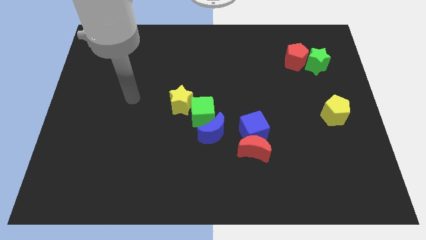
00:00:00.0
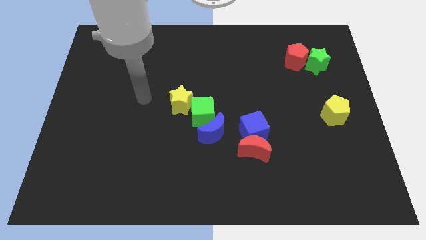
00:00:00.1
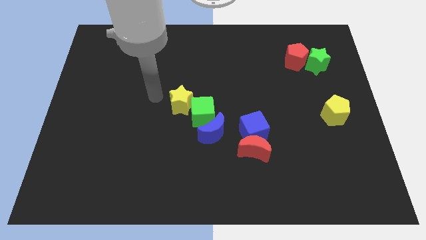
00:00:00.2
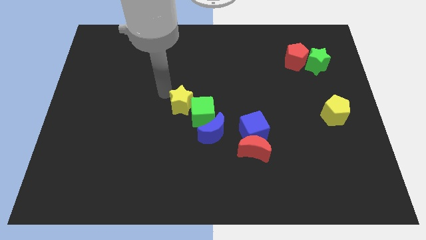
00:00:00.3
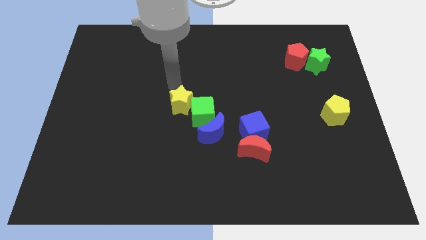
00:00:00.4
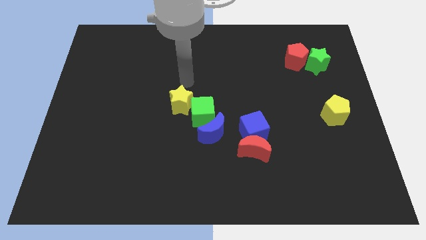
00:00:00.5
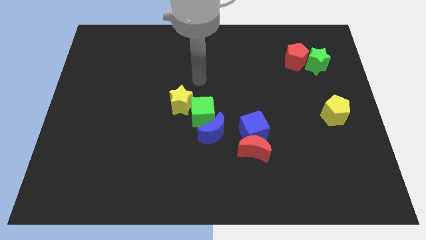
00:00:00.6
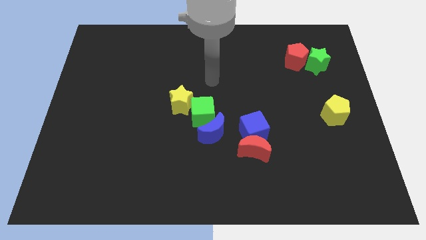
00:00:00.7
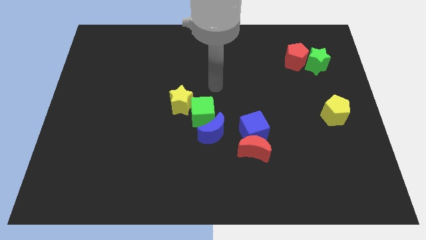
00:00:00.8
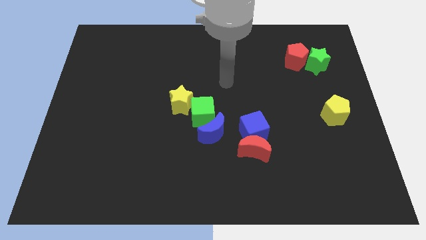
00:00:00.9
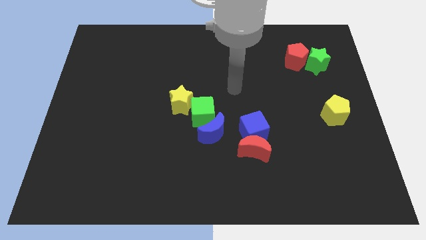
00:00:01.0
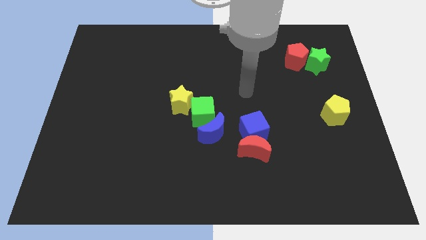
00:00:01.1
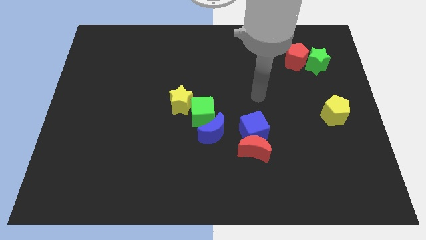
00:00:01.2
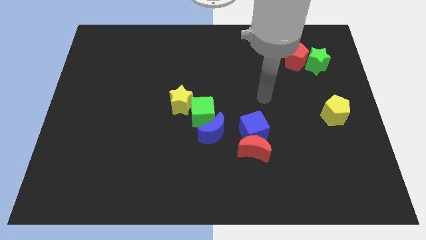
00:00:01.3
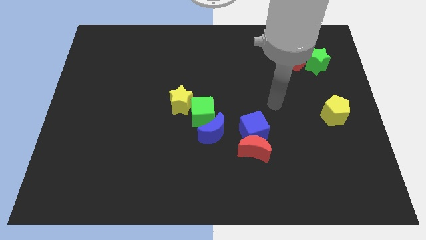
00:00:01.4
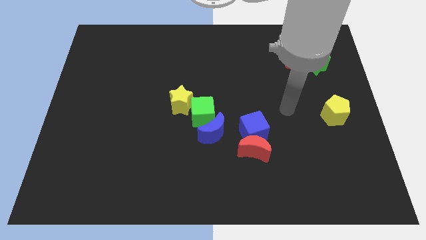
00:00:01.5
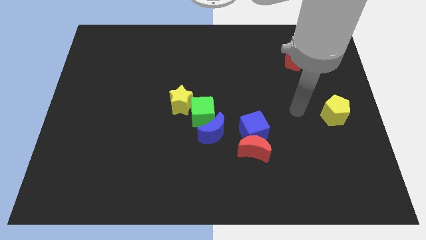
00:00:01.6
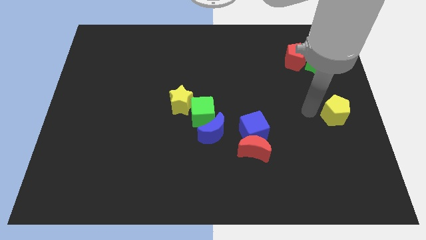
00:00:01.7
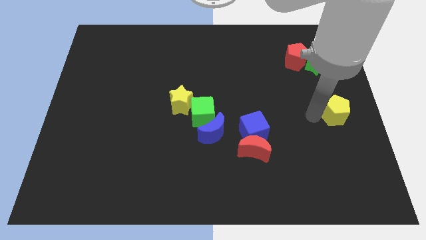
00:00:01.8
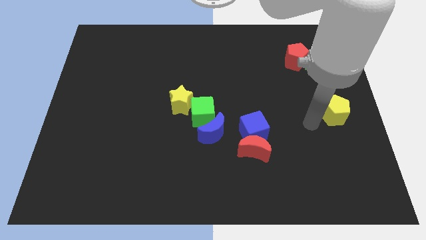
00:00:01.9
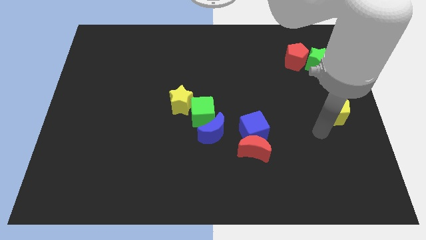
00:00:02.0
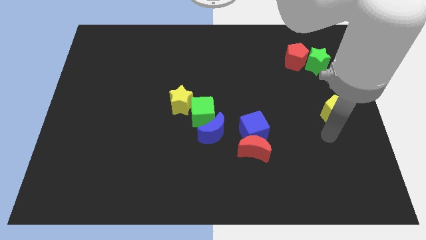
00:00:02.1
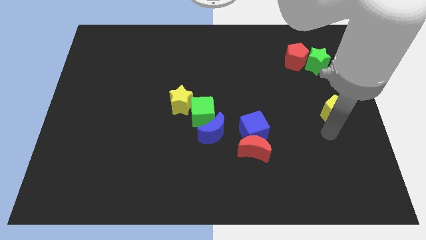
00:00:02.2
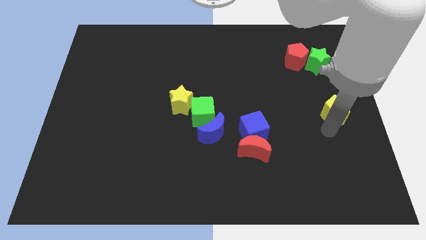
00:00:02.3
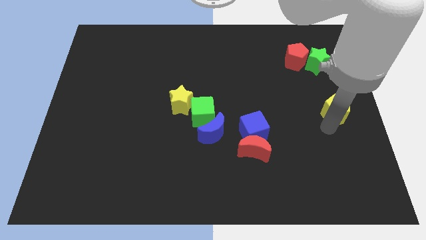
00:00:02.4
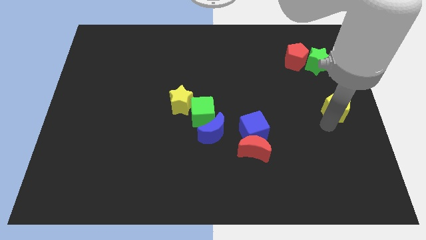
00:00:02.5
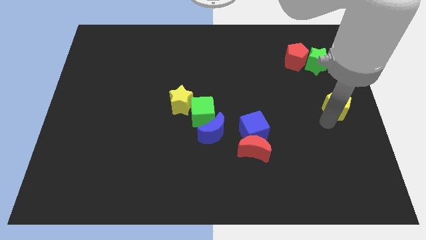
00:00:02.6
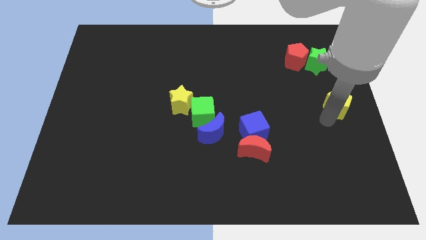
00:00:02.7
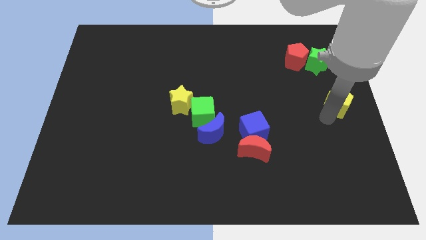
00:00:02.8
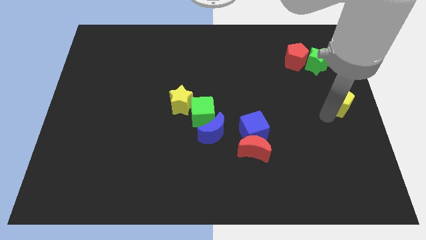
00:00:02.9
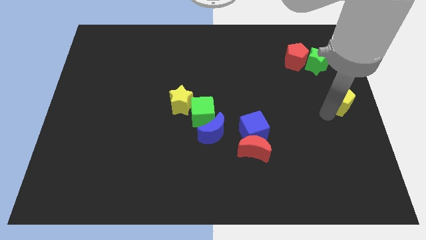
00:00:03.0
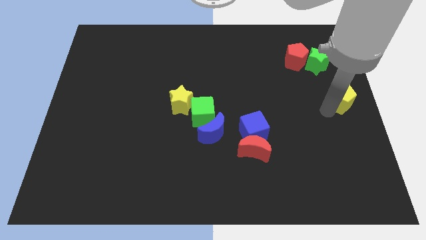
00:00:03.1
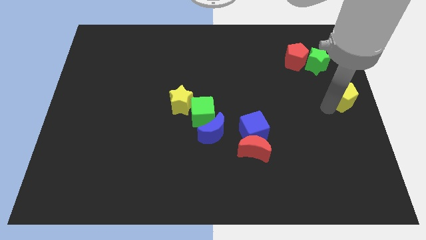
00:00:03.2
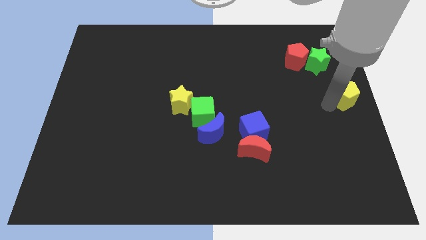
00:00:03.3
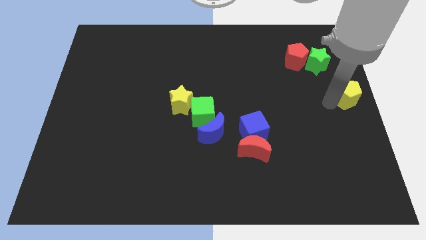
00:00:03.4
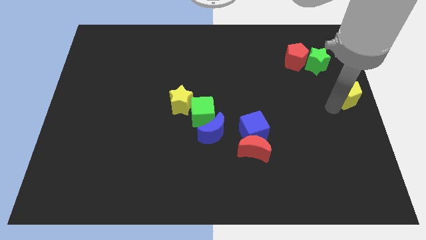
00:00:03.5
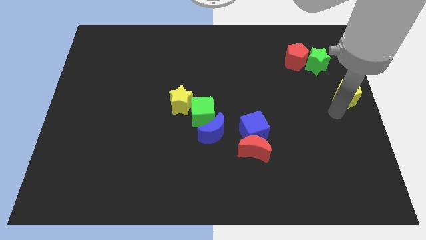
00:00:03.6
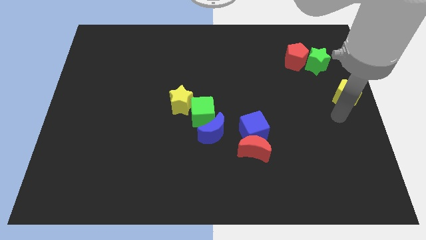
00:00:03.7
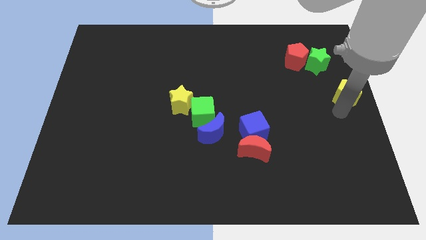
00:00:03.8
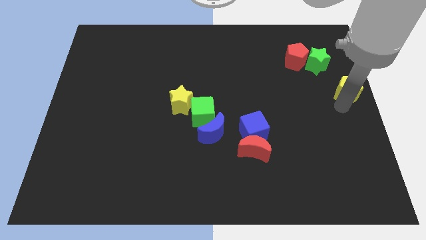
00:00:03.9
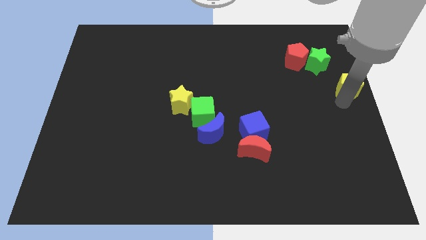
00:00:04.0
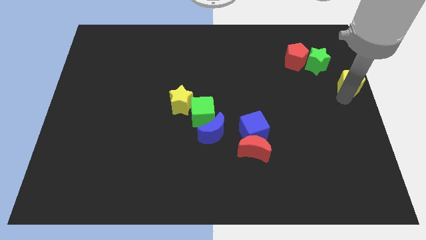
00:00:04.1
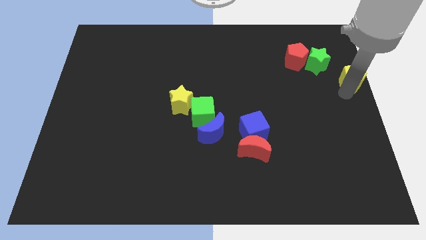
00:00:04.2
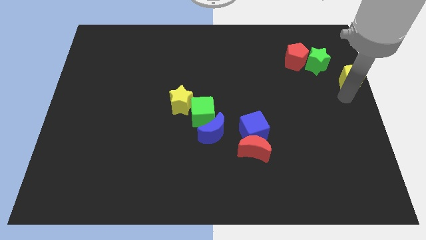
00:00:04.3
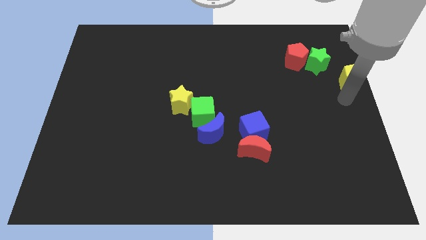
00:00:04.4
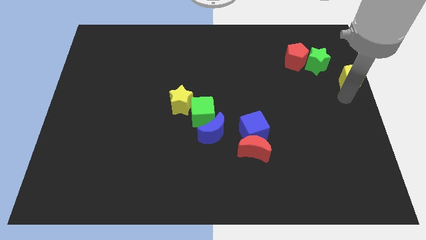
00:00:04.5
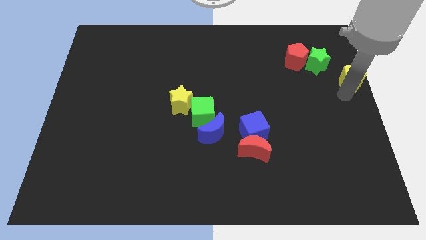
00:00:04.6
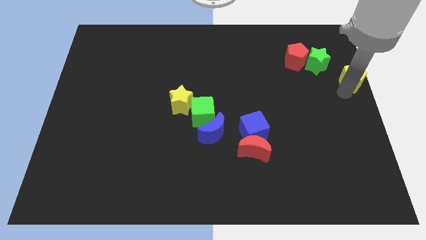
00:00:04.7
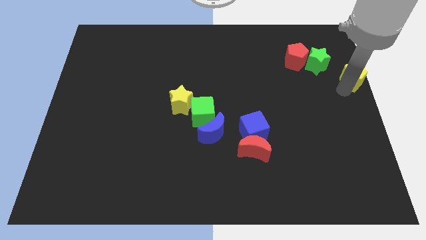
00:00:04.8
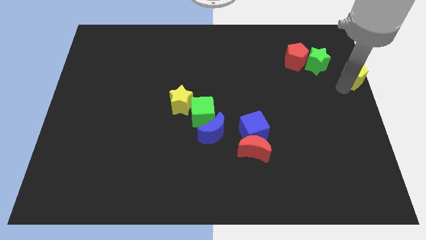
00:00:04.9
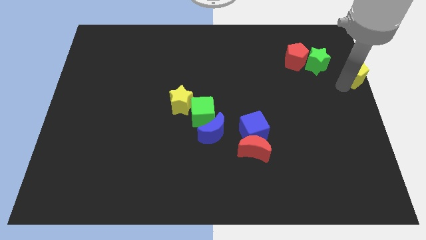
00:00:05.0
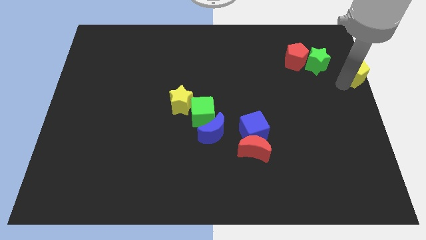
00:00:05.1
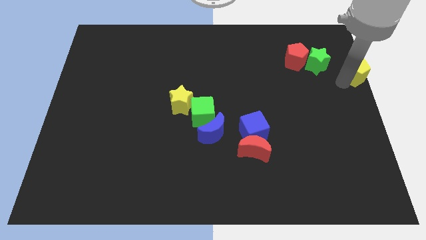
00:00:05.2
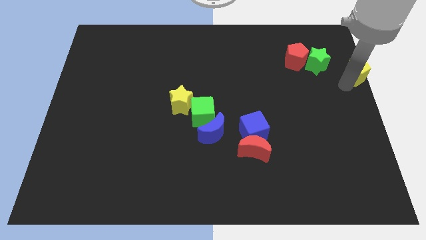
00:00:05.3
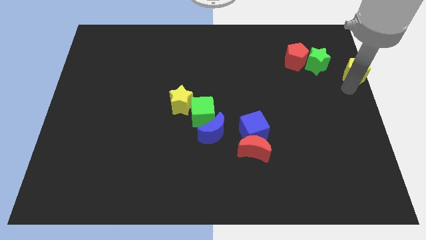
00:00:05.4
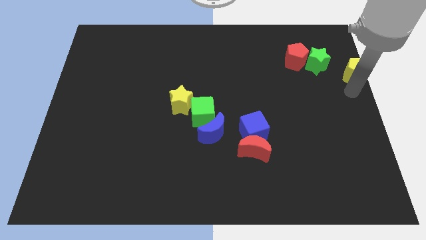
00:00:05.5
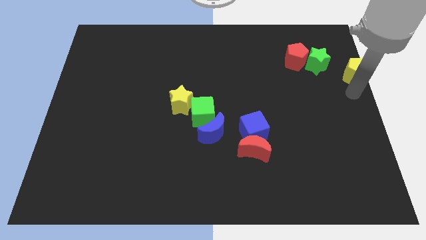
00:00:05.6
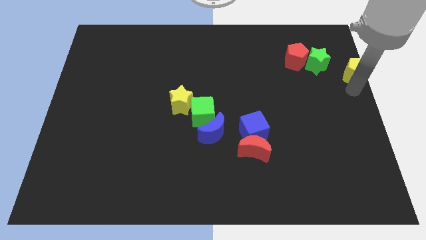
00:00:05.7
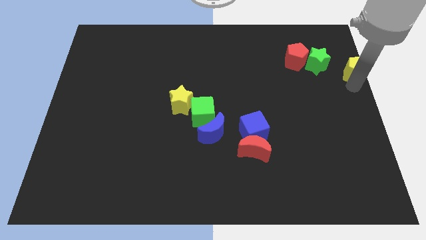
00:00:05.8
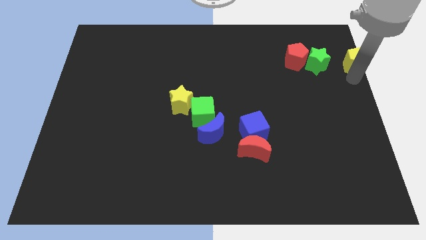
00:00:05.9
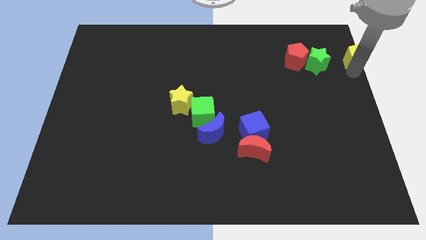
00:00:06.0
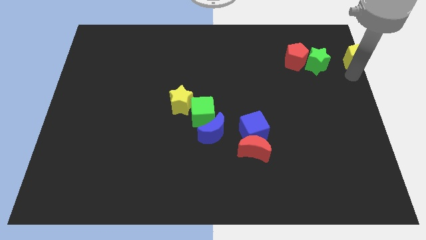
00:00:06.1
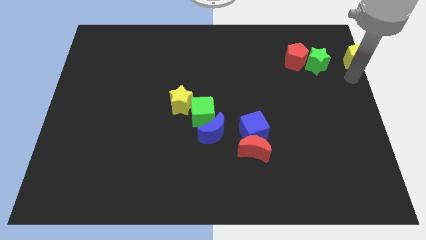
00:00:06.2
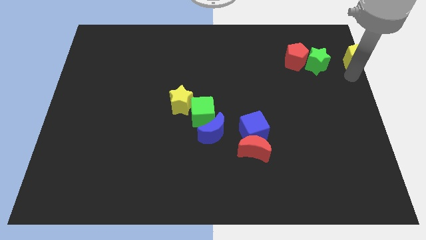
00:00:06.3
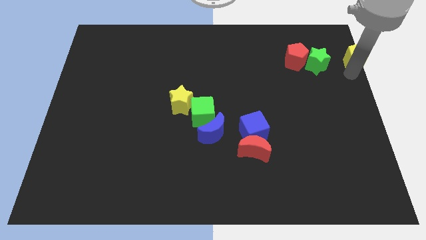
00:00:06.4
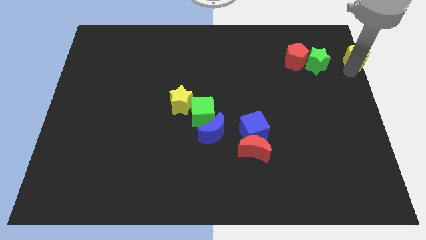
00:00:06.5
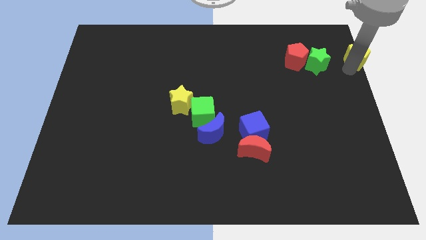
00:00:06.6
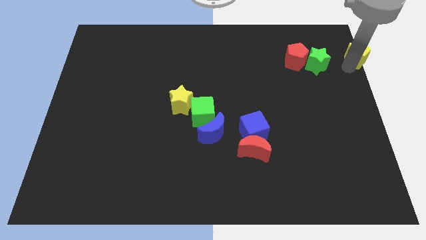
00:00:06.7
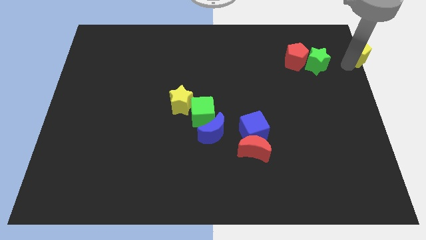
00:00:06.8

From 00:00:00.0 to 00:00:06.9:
slide the yellow pentagon to the top right corner
